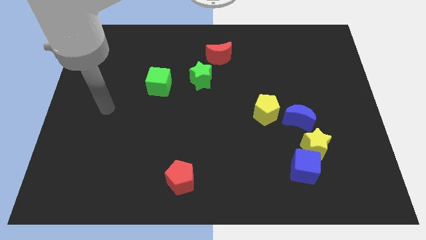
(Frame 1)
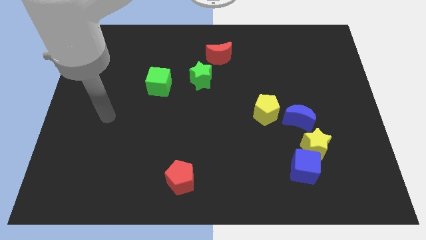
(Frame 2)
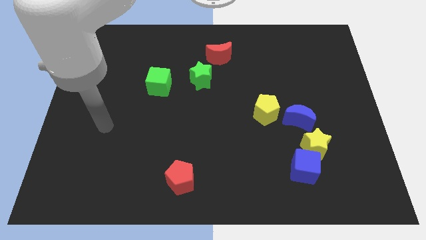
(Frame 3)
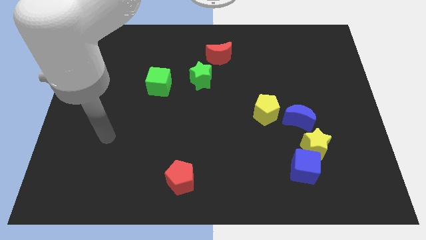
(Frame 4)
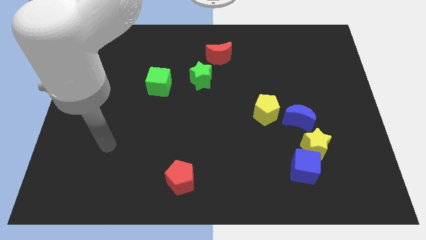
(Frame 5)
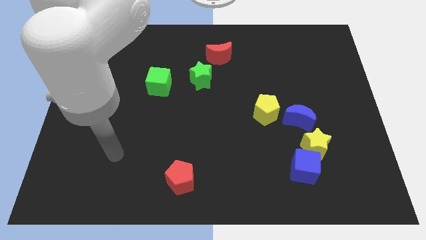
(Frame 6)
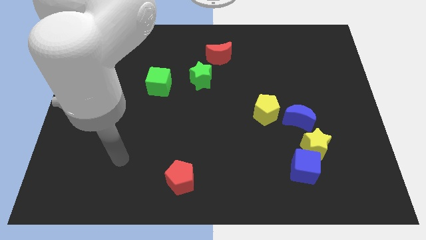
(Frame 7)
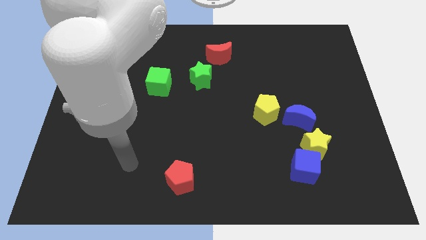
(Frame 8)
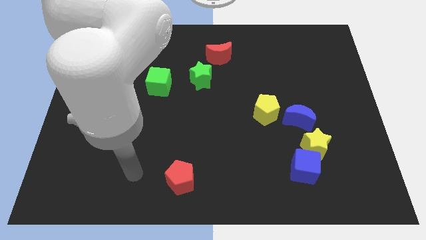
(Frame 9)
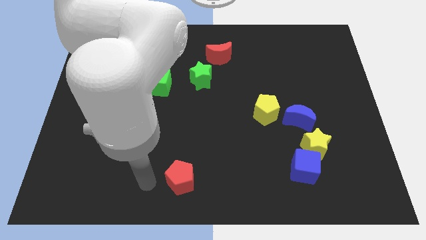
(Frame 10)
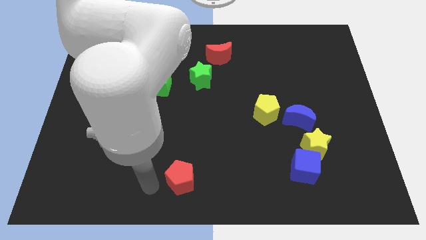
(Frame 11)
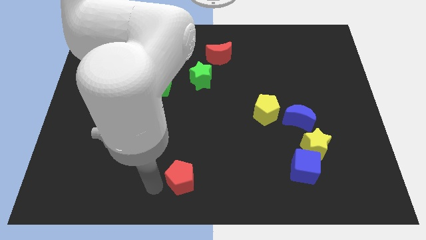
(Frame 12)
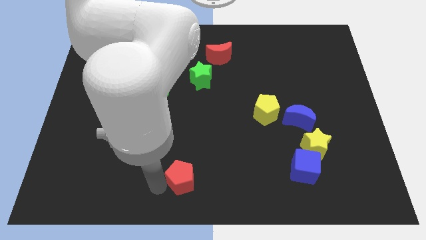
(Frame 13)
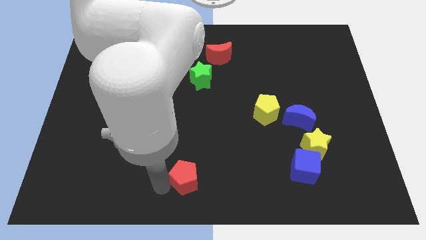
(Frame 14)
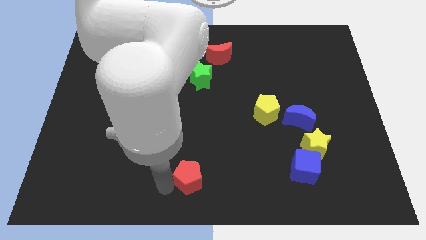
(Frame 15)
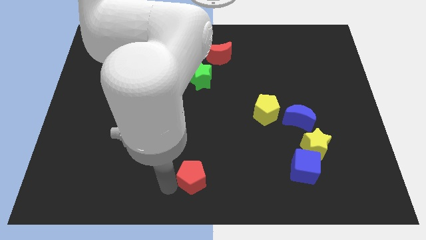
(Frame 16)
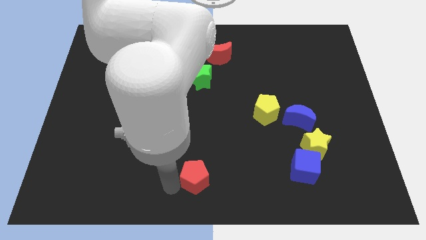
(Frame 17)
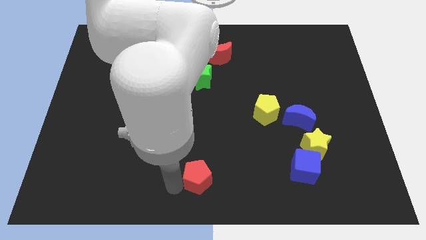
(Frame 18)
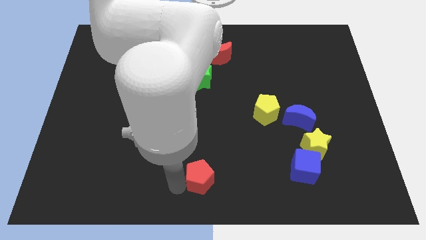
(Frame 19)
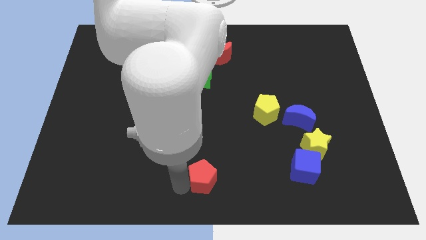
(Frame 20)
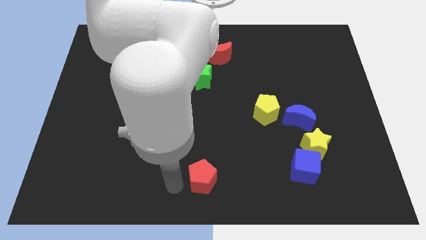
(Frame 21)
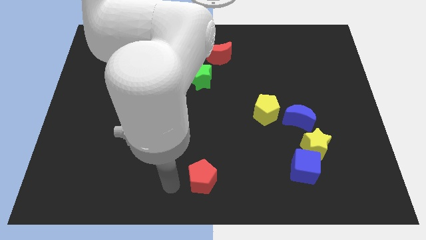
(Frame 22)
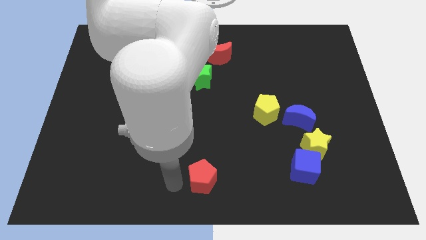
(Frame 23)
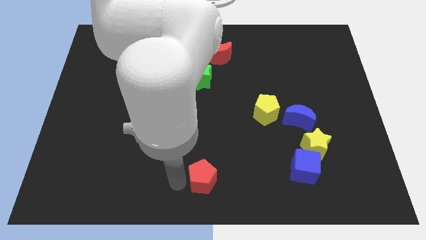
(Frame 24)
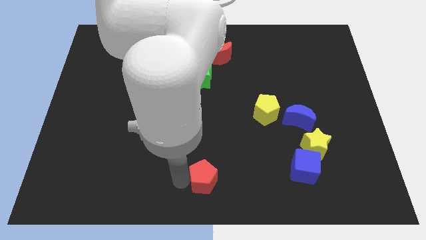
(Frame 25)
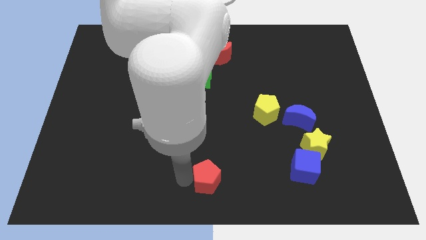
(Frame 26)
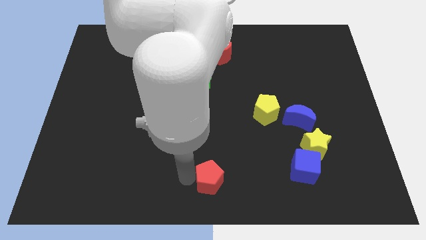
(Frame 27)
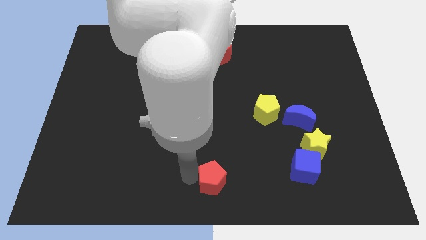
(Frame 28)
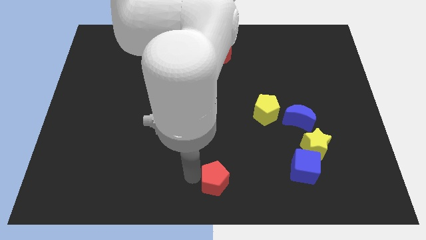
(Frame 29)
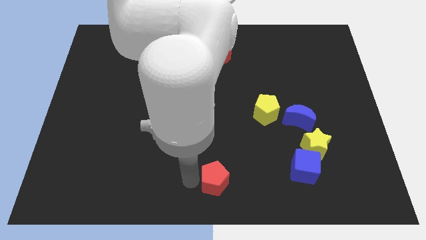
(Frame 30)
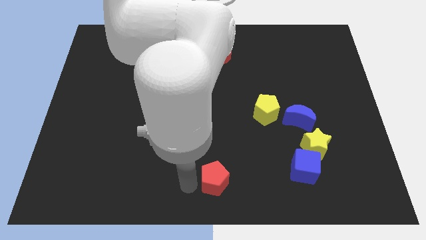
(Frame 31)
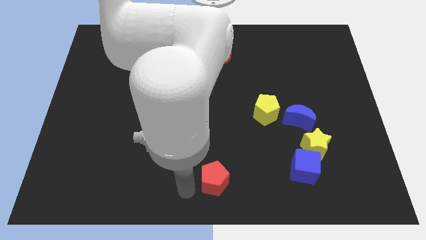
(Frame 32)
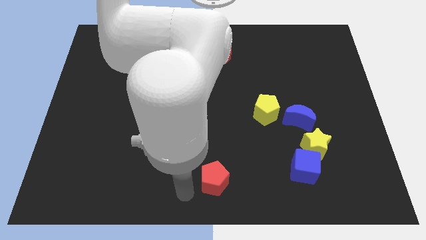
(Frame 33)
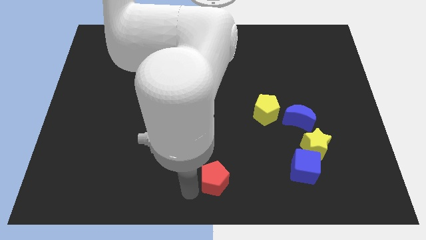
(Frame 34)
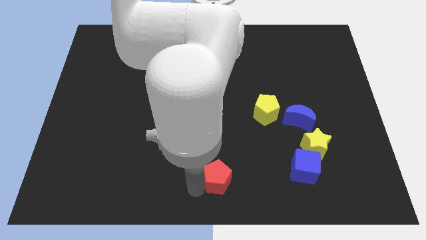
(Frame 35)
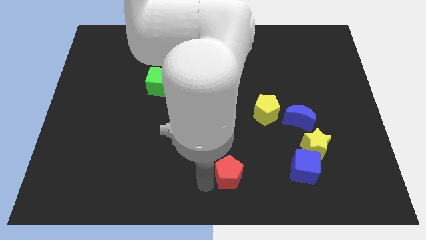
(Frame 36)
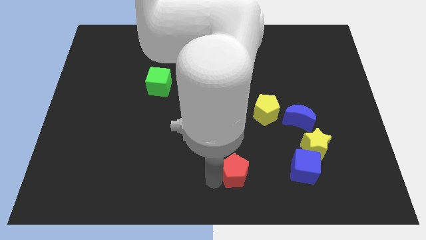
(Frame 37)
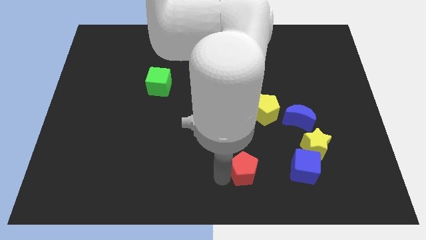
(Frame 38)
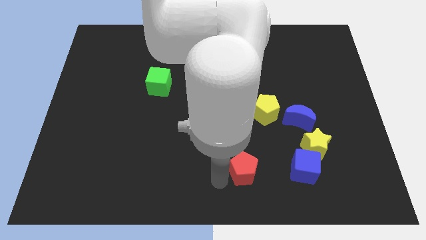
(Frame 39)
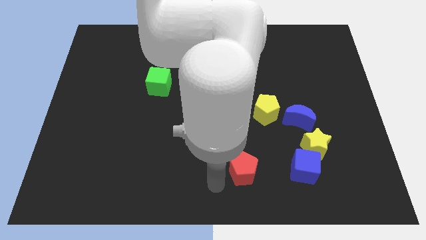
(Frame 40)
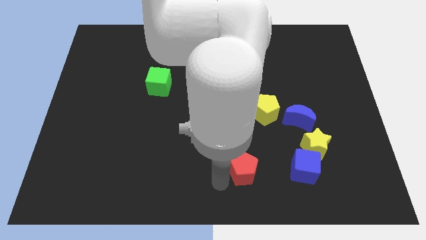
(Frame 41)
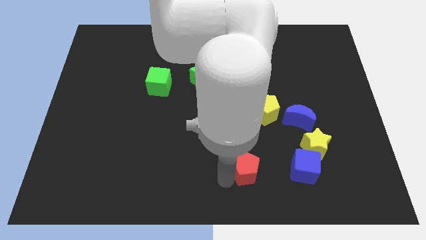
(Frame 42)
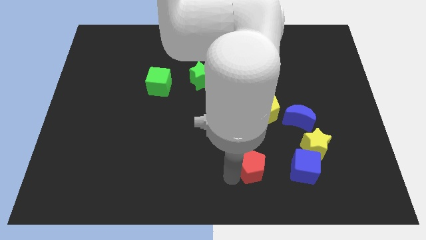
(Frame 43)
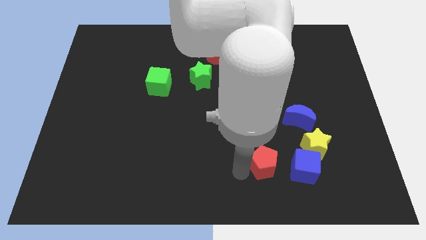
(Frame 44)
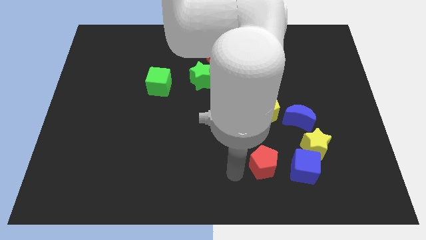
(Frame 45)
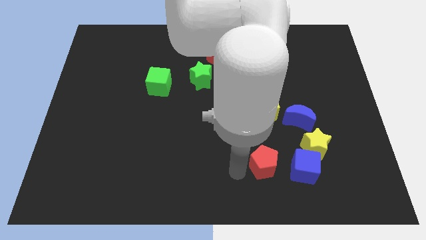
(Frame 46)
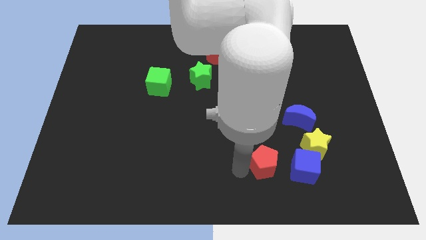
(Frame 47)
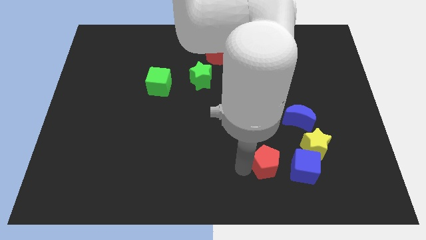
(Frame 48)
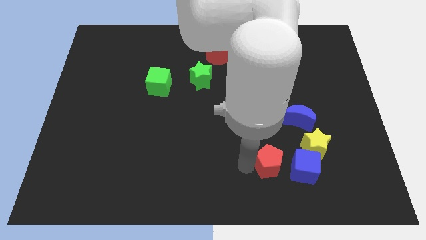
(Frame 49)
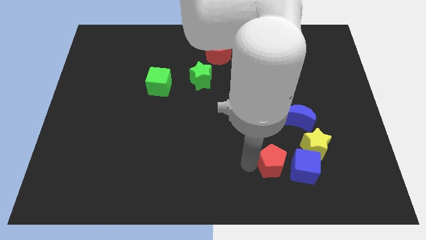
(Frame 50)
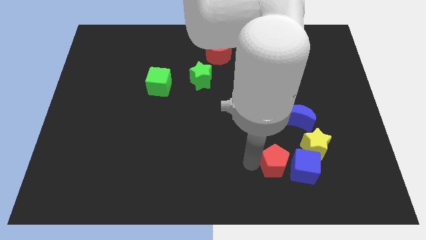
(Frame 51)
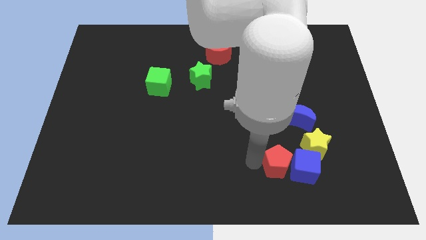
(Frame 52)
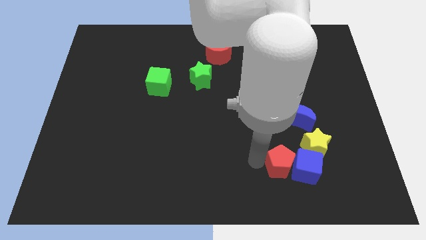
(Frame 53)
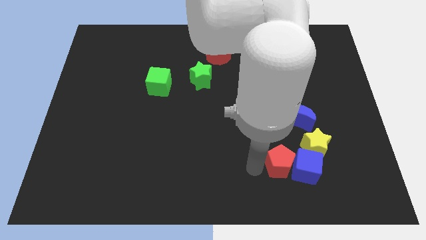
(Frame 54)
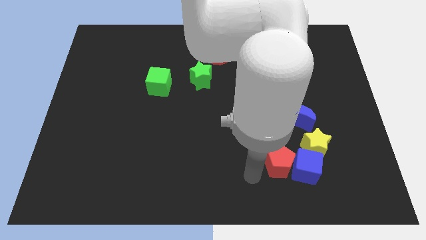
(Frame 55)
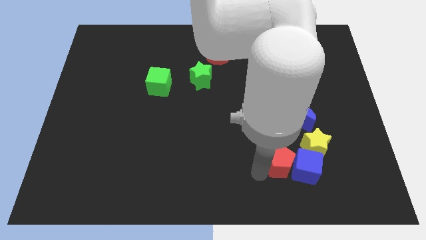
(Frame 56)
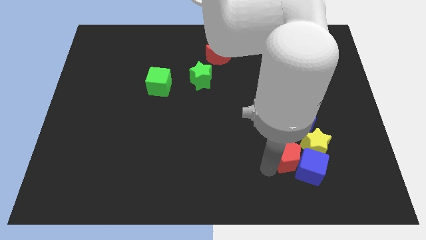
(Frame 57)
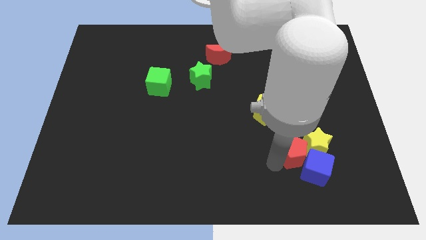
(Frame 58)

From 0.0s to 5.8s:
slide the red pentagon to the yellow star

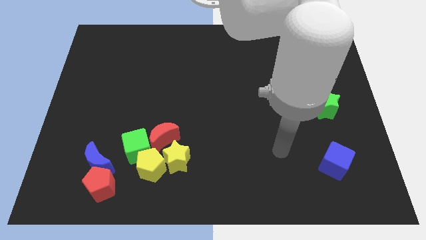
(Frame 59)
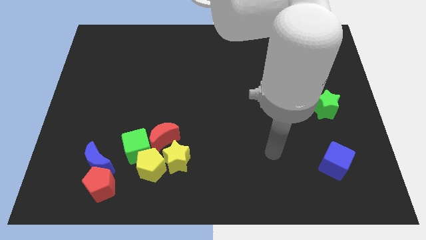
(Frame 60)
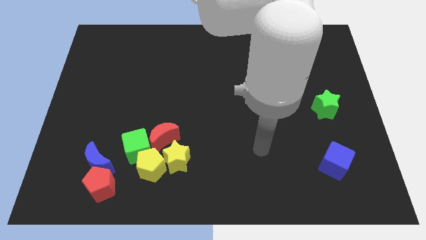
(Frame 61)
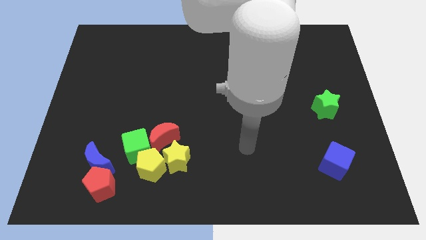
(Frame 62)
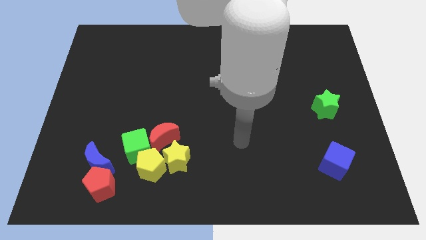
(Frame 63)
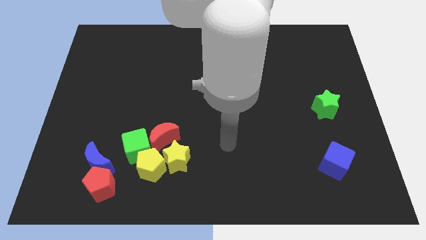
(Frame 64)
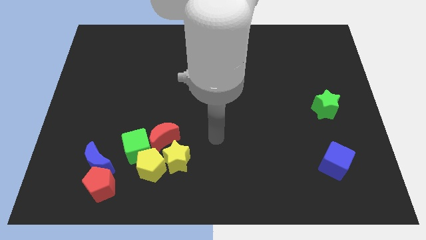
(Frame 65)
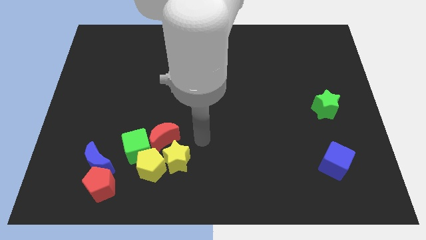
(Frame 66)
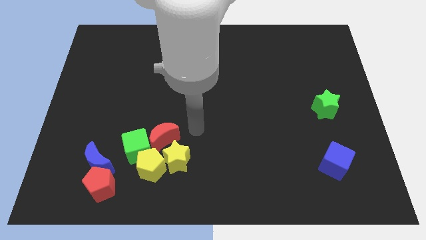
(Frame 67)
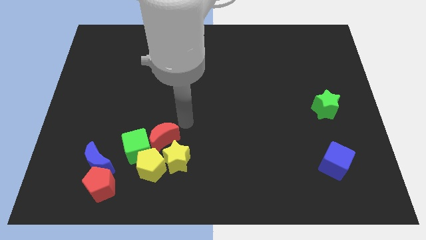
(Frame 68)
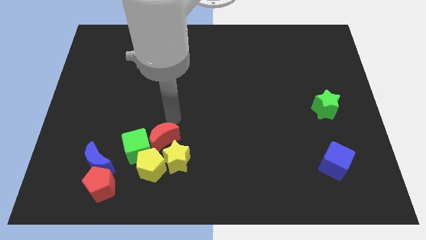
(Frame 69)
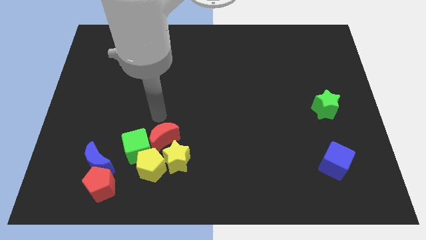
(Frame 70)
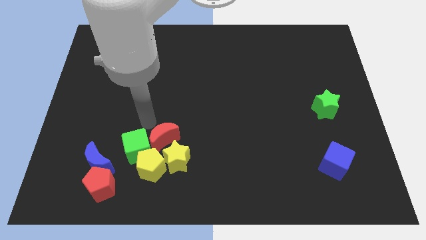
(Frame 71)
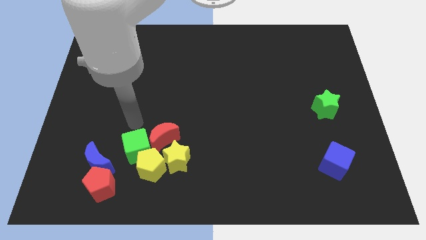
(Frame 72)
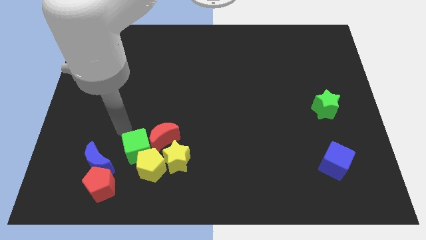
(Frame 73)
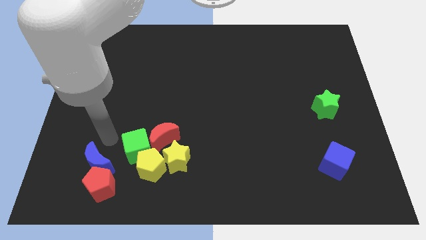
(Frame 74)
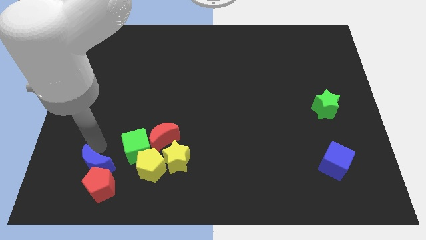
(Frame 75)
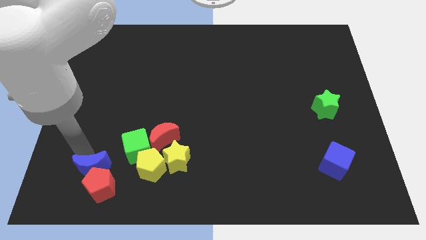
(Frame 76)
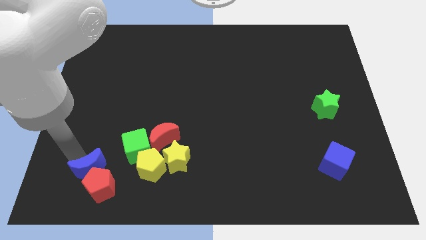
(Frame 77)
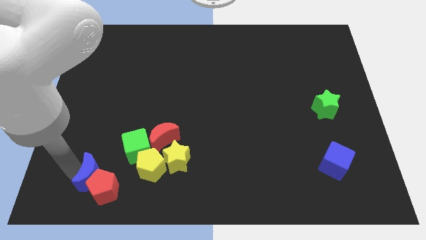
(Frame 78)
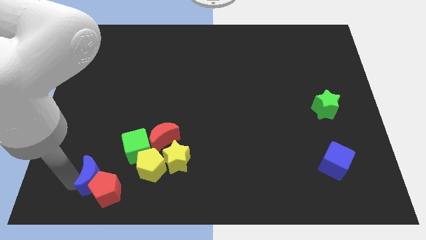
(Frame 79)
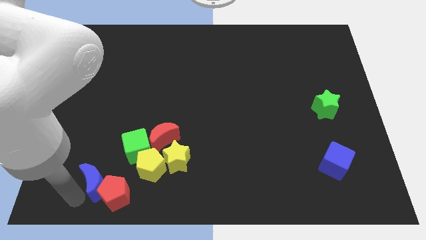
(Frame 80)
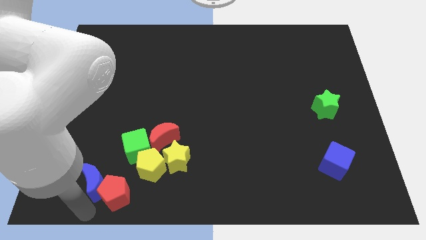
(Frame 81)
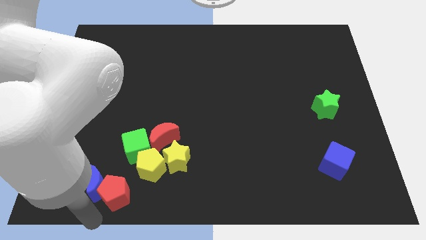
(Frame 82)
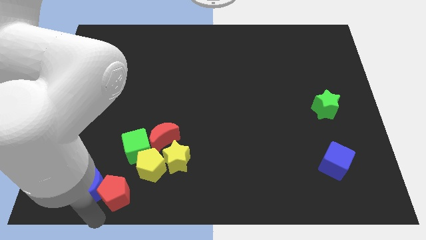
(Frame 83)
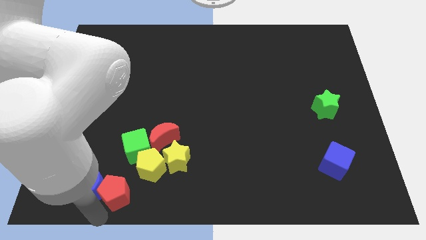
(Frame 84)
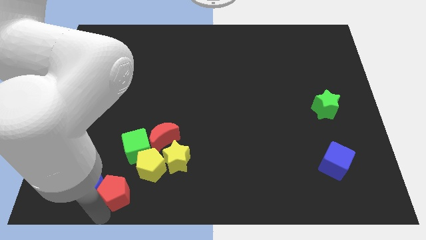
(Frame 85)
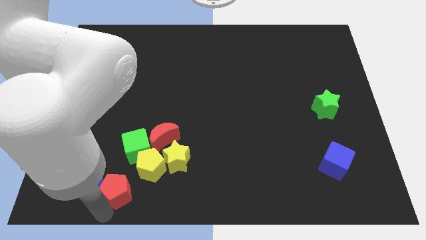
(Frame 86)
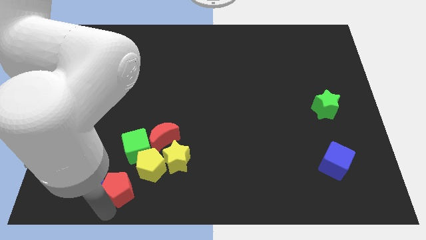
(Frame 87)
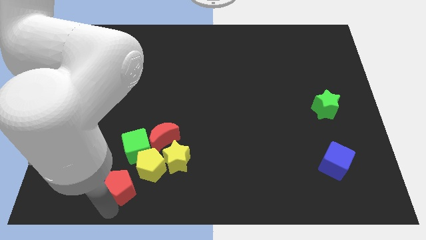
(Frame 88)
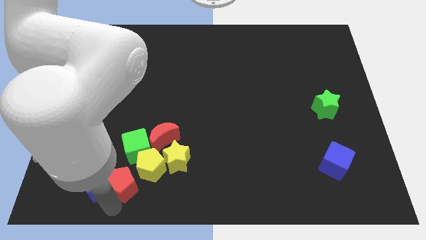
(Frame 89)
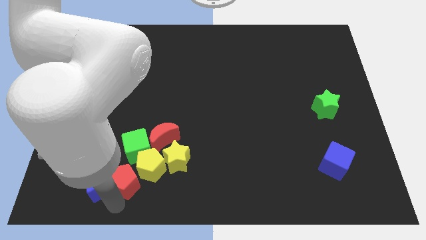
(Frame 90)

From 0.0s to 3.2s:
move the red pentagon towards the yellow pentagon
